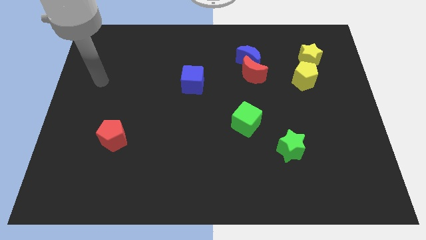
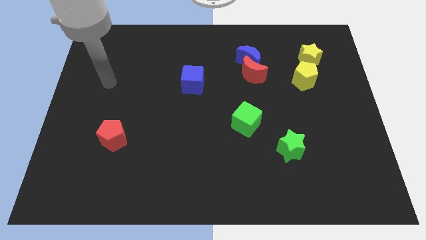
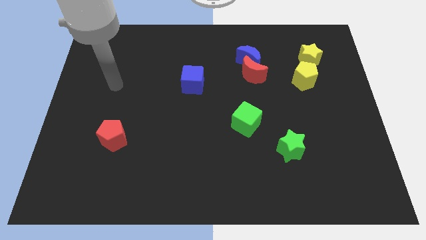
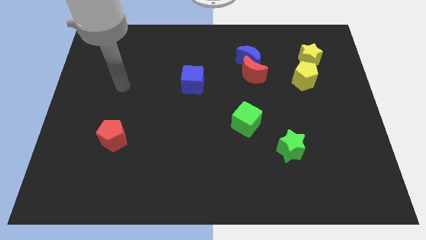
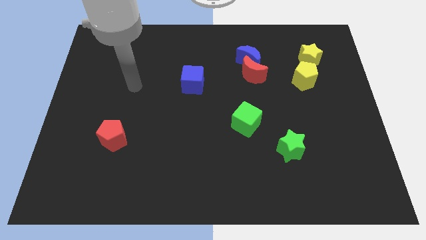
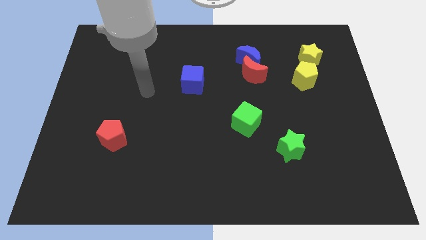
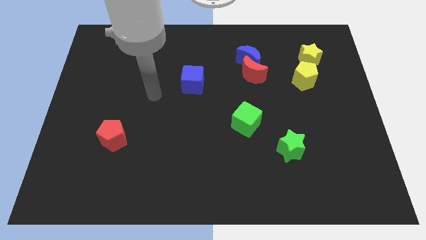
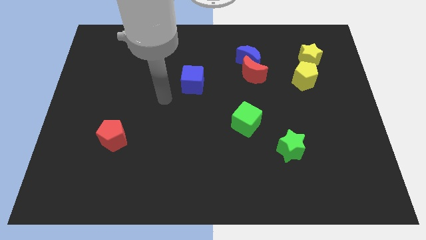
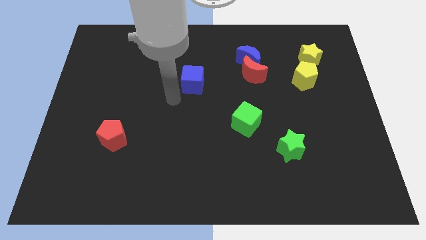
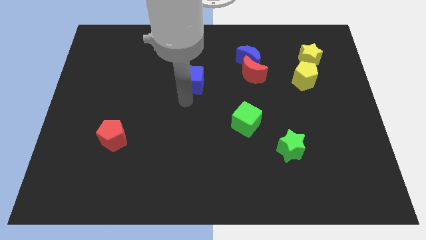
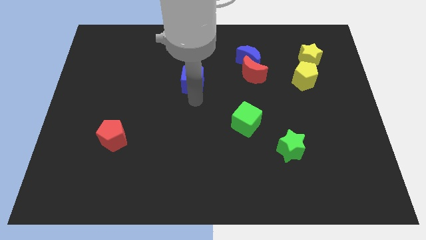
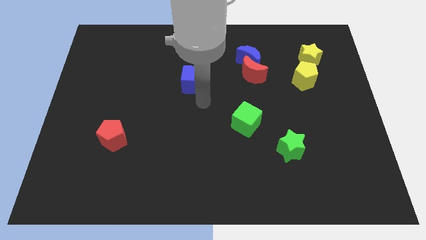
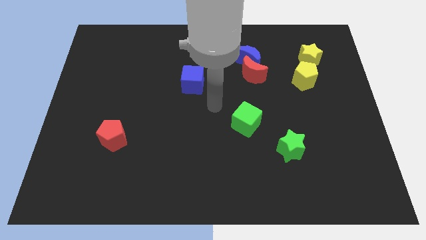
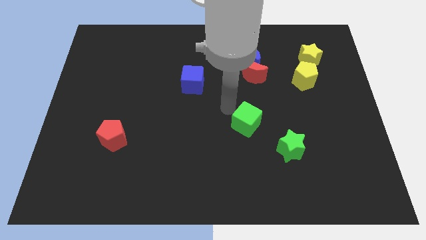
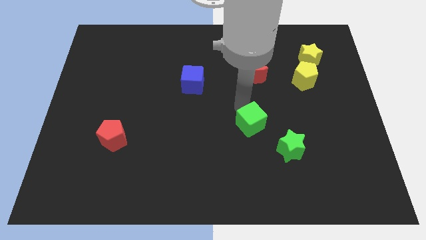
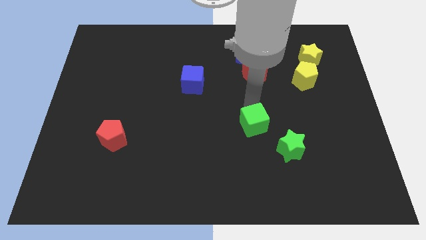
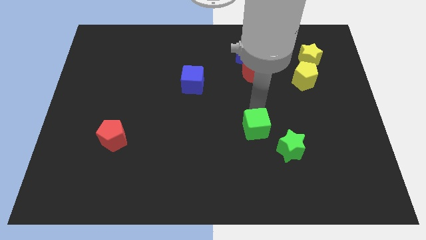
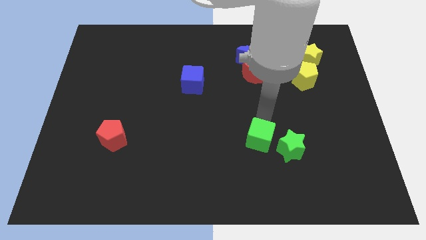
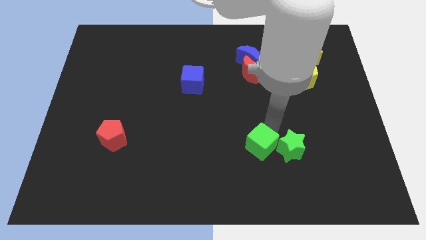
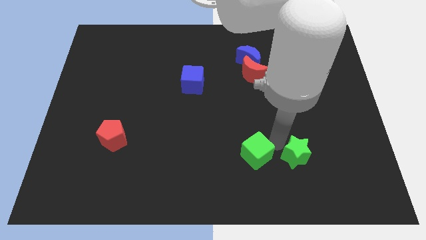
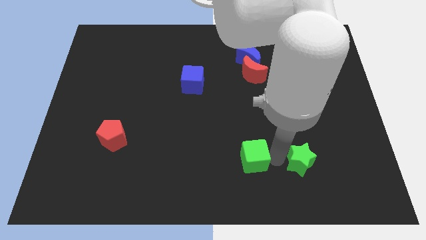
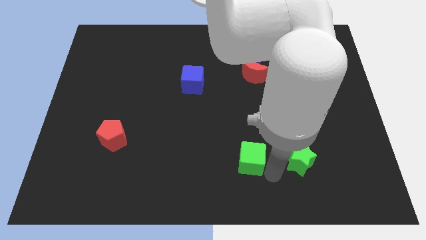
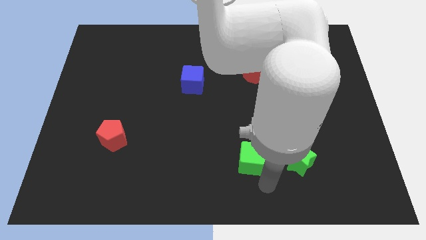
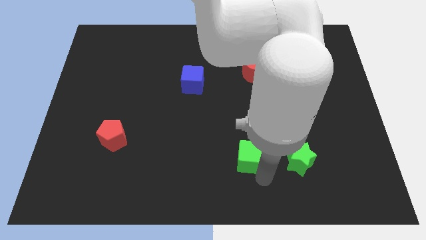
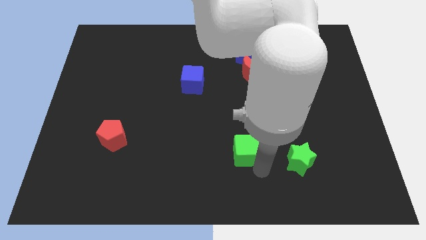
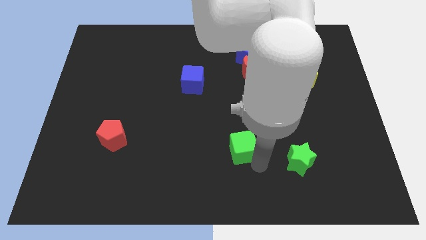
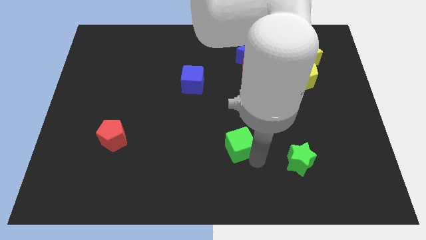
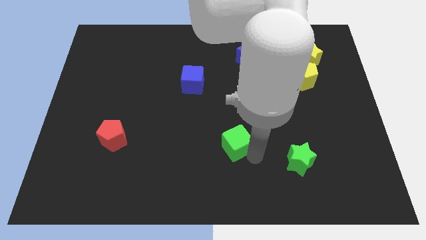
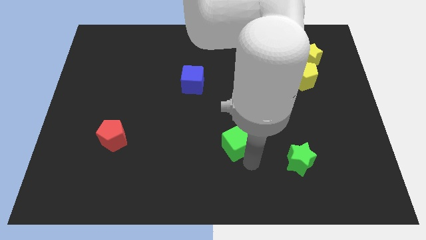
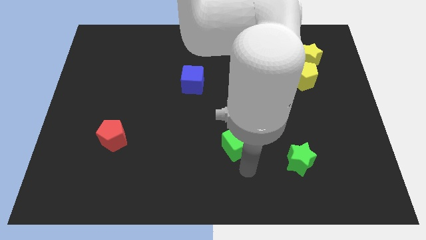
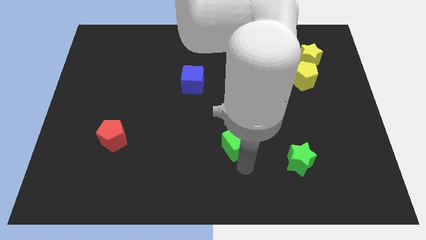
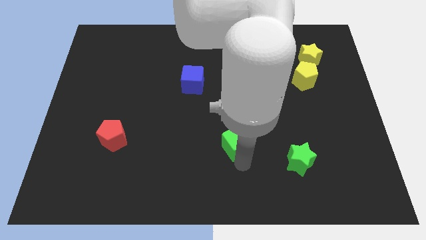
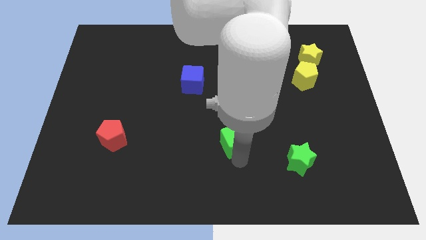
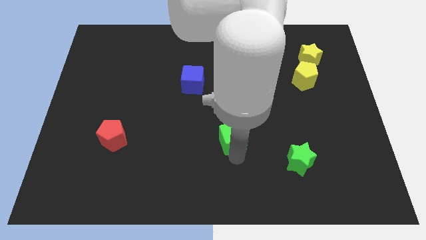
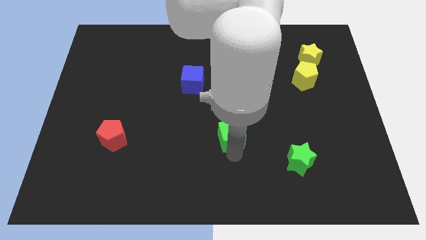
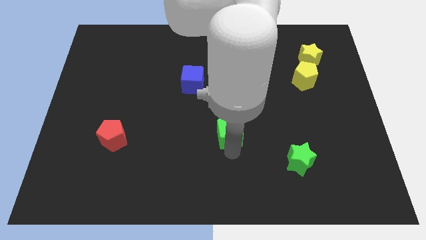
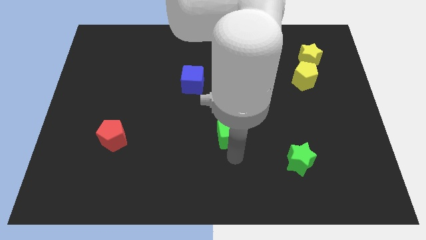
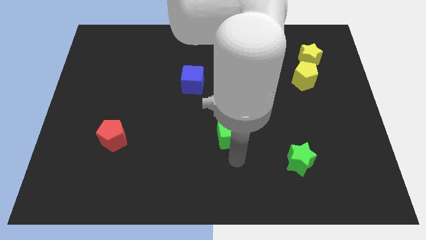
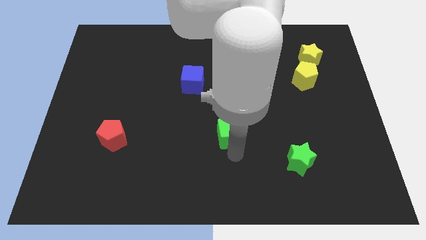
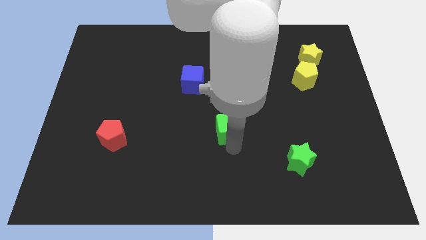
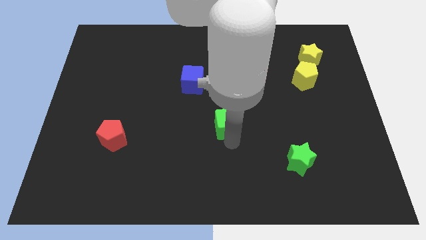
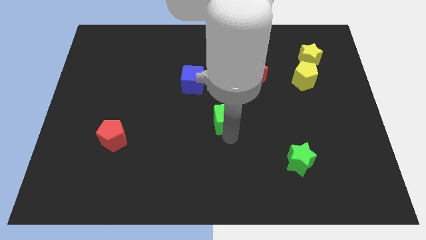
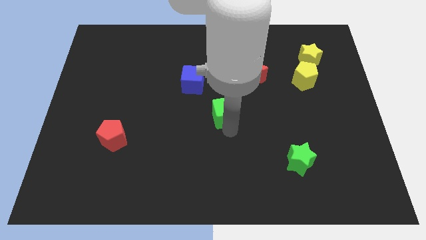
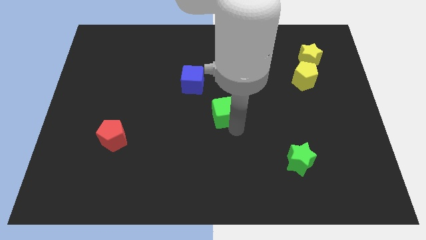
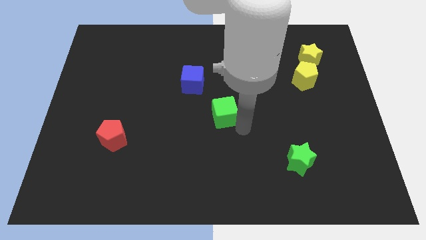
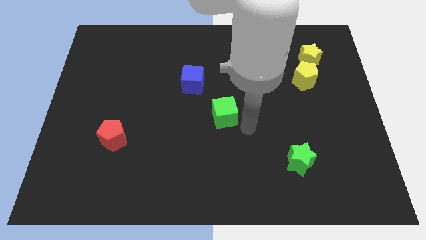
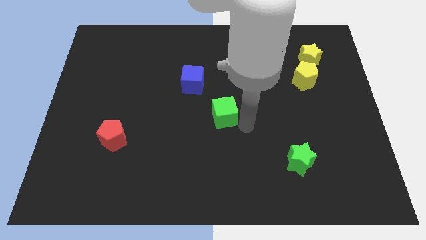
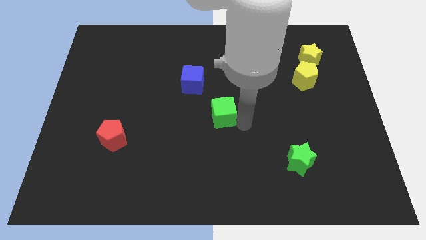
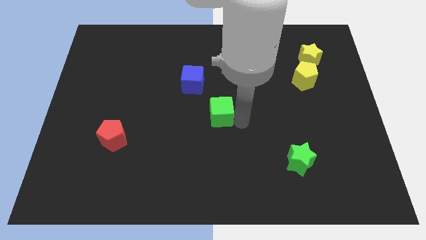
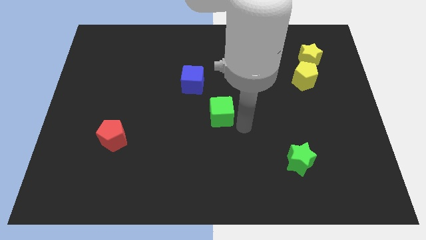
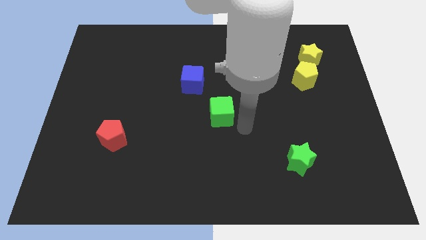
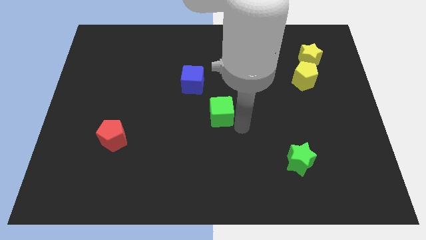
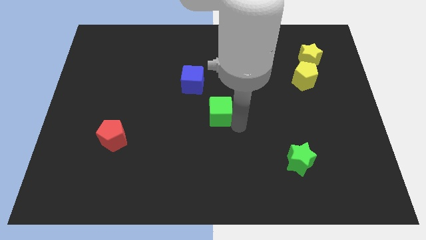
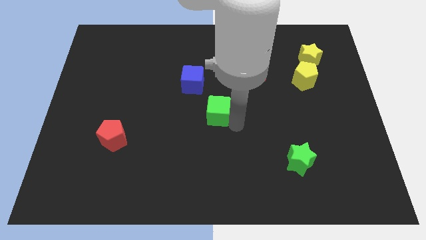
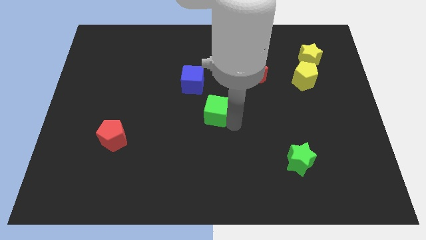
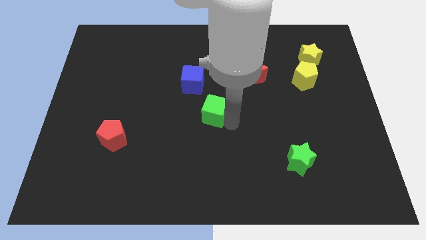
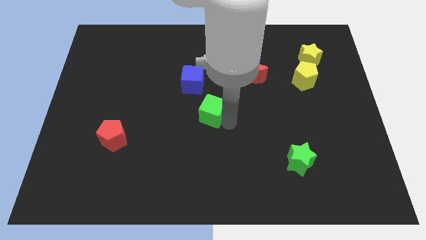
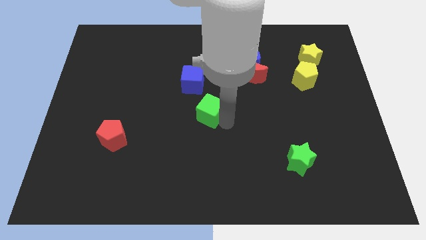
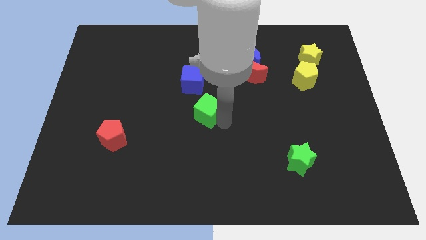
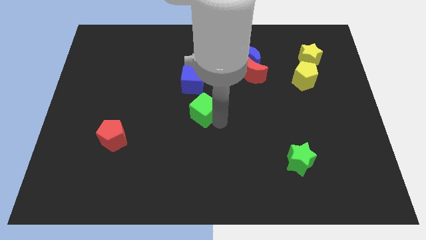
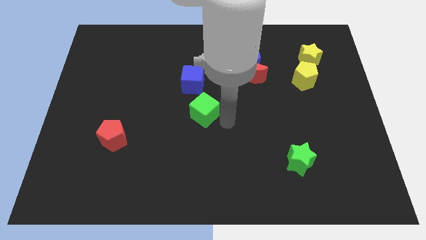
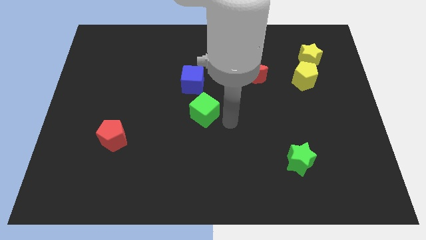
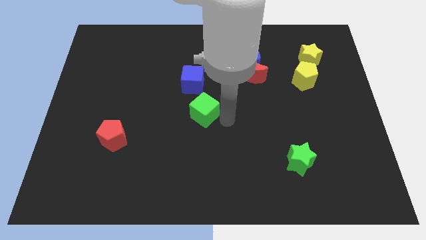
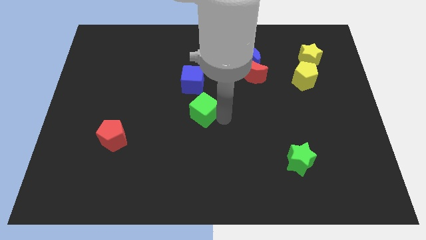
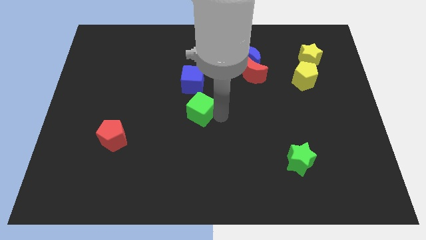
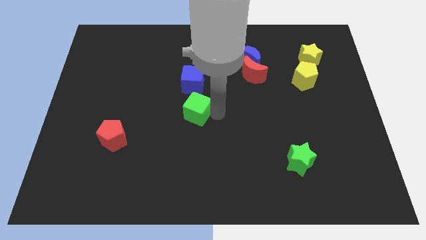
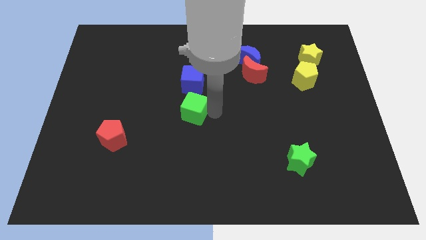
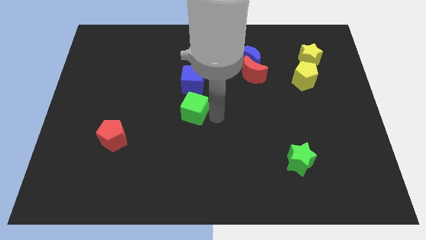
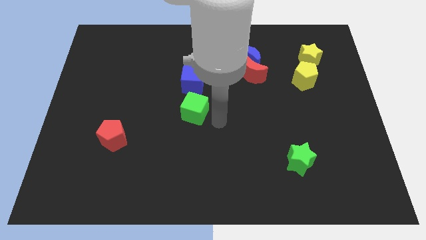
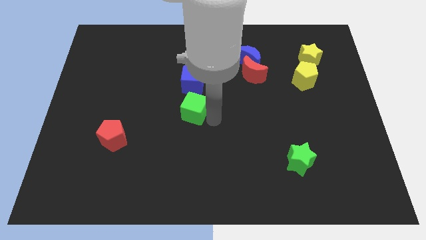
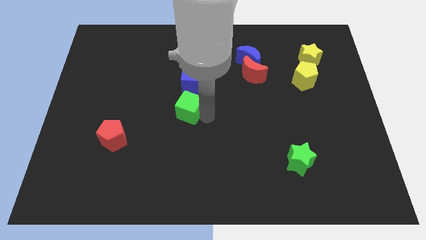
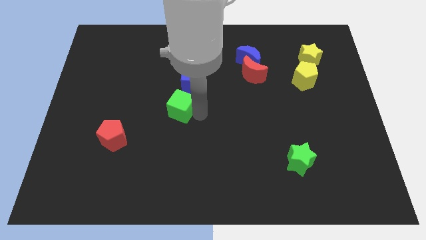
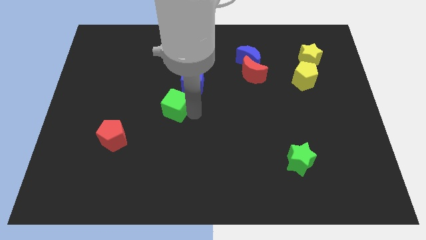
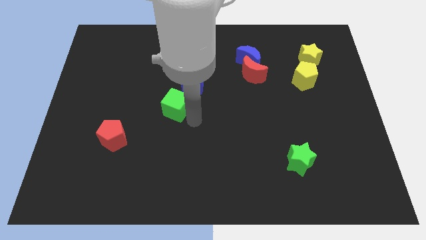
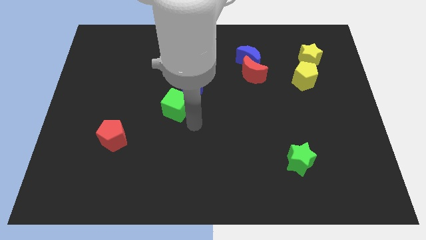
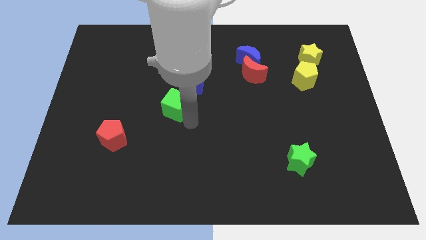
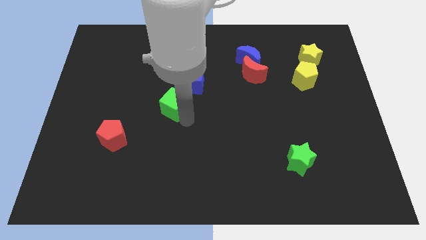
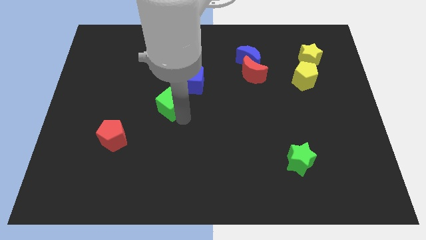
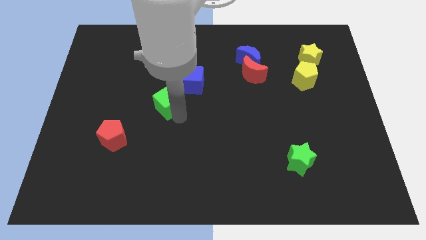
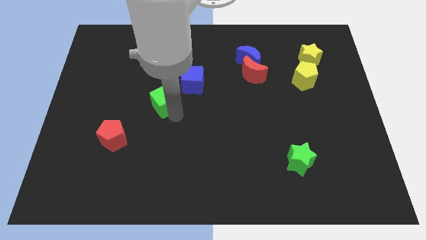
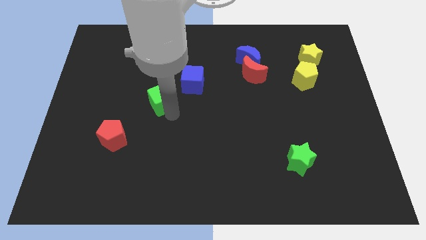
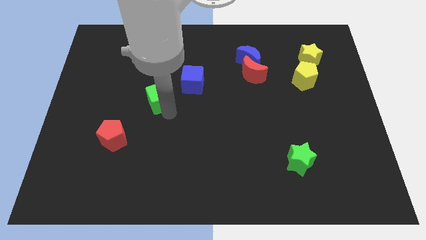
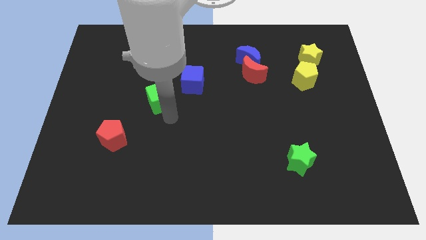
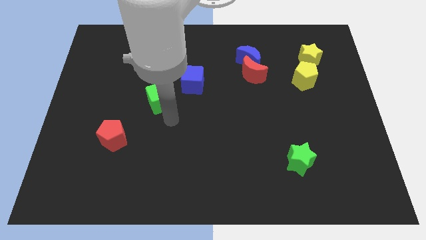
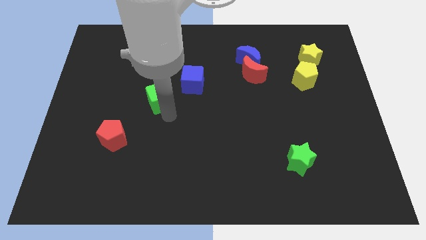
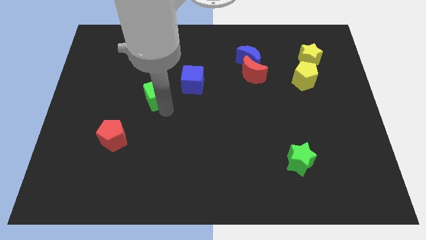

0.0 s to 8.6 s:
slide the green cube to the left of the blue cube

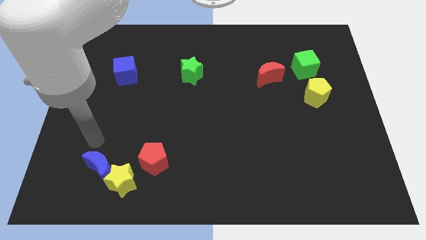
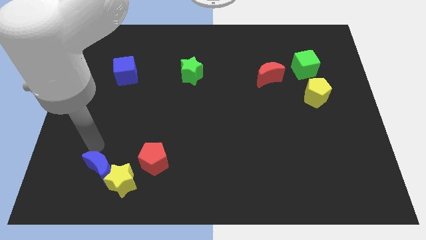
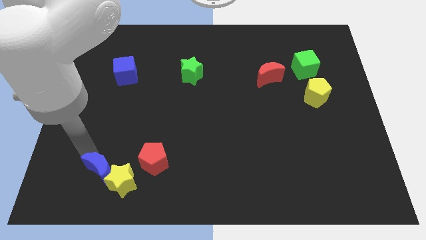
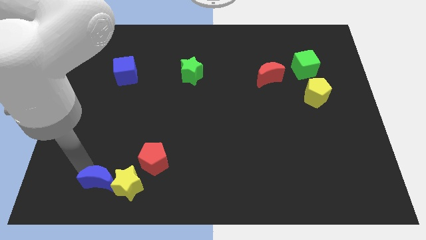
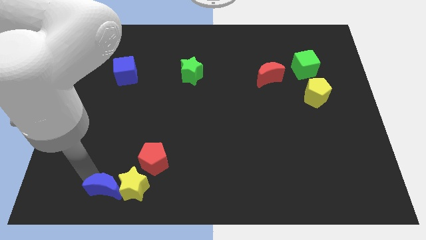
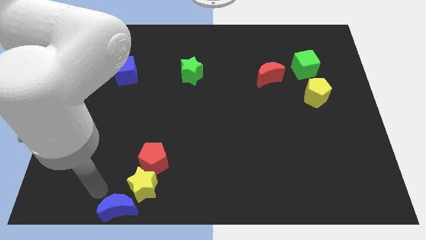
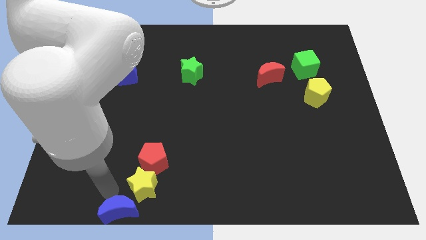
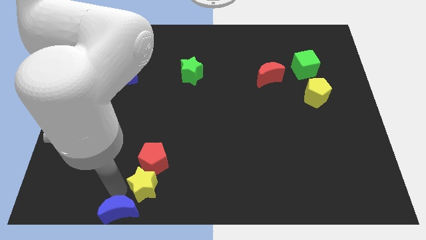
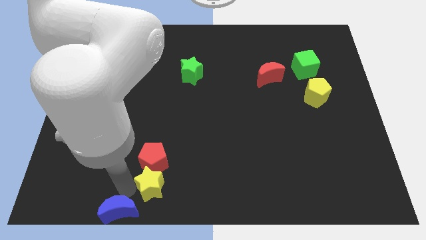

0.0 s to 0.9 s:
push the yellow star to the bottom right of the red pentagon
